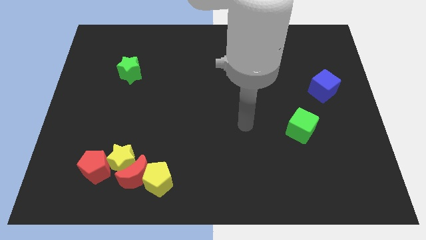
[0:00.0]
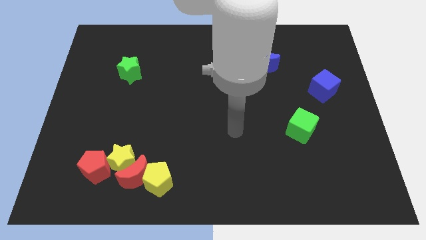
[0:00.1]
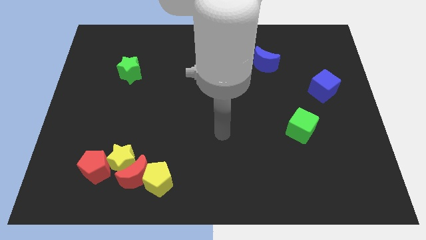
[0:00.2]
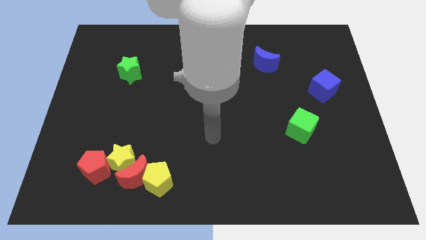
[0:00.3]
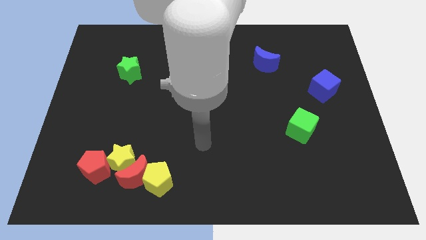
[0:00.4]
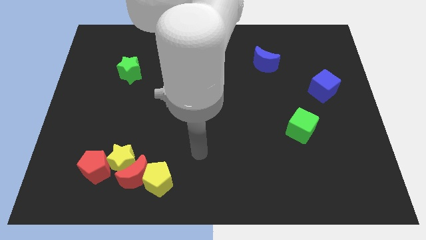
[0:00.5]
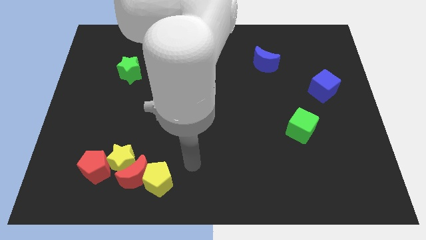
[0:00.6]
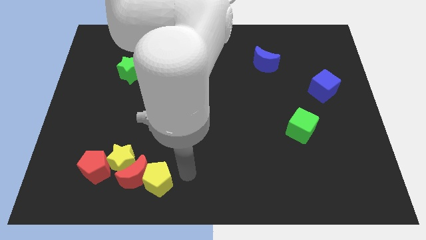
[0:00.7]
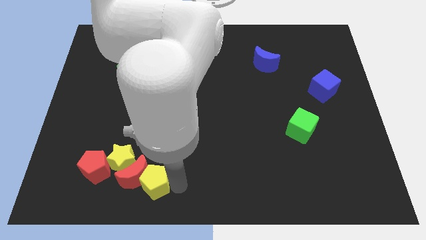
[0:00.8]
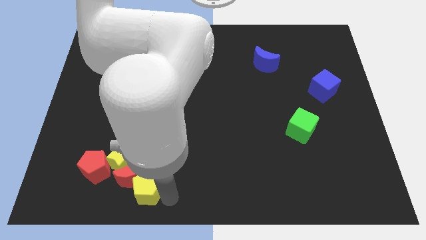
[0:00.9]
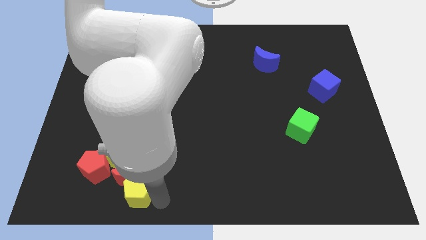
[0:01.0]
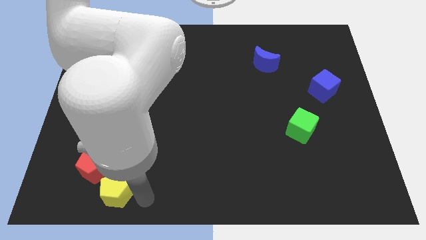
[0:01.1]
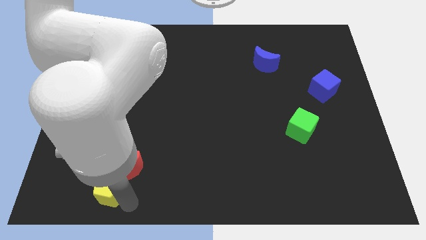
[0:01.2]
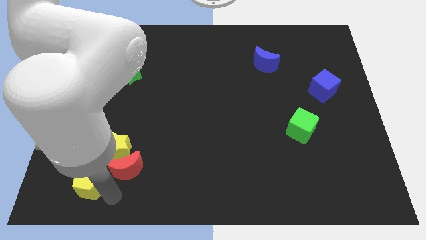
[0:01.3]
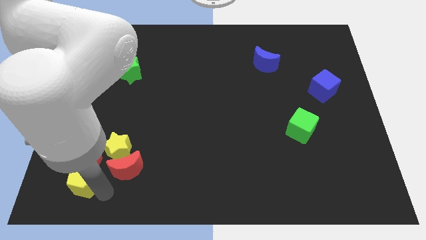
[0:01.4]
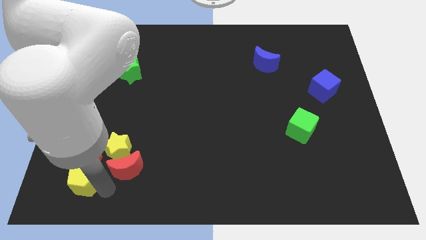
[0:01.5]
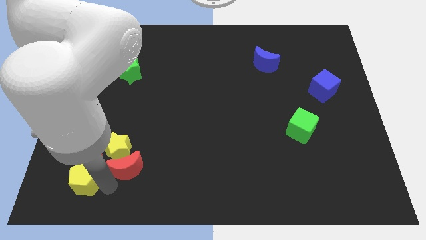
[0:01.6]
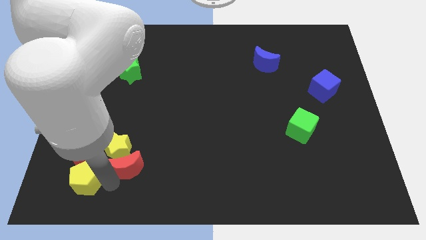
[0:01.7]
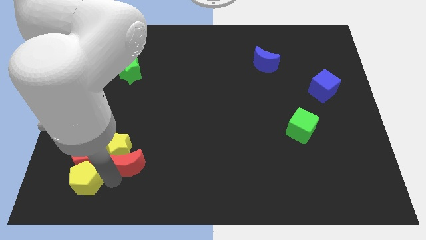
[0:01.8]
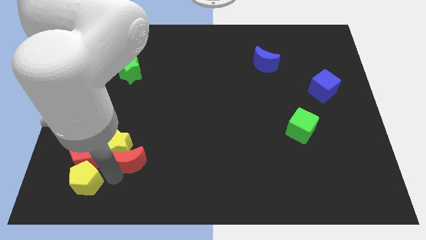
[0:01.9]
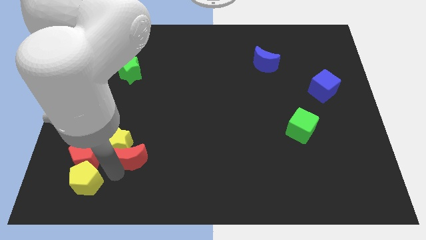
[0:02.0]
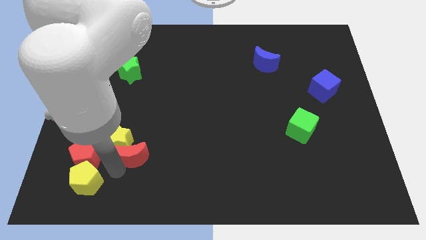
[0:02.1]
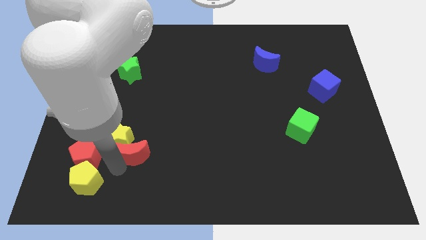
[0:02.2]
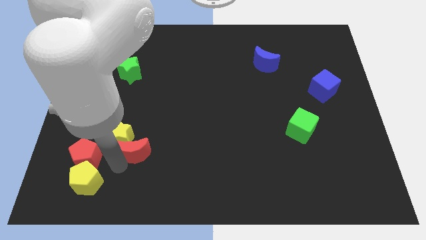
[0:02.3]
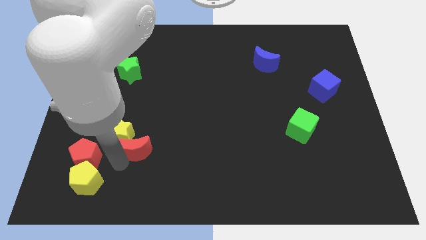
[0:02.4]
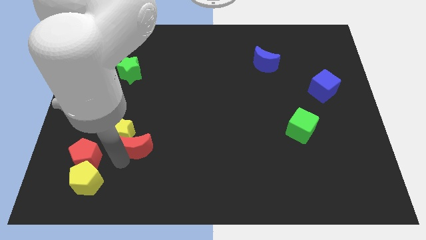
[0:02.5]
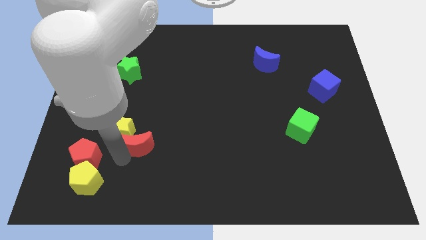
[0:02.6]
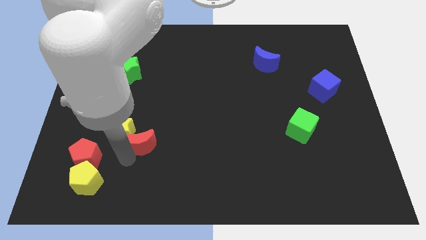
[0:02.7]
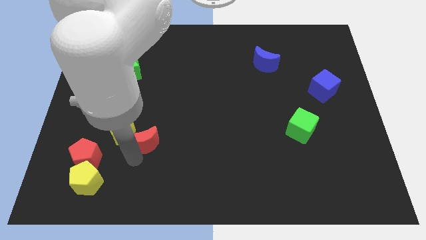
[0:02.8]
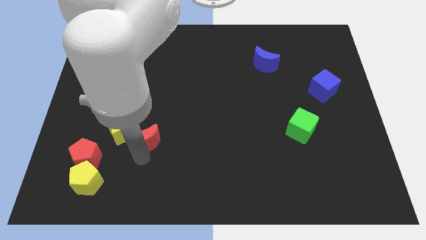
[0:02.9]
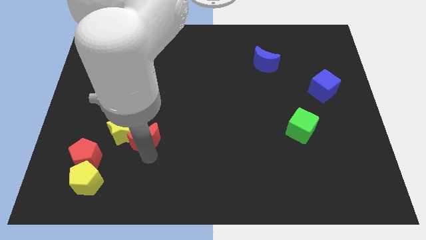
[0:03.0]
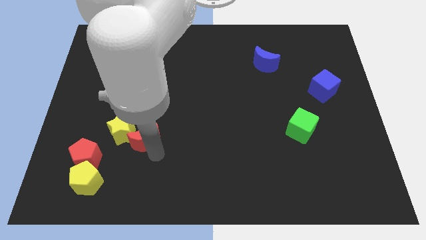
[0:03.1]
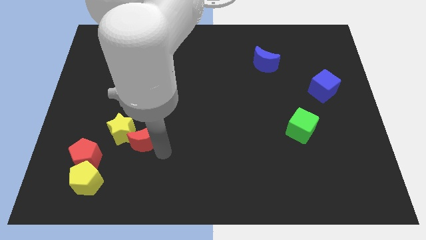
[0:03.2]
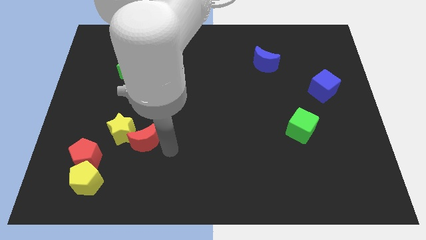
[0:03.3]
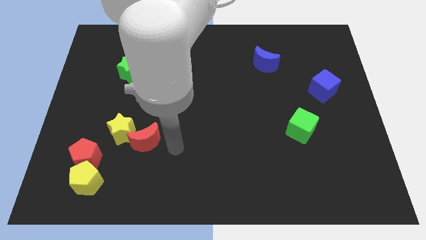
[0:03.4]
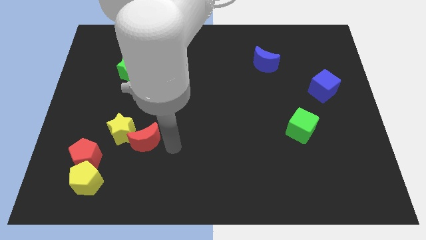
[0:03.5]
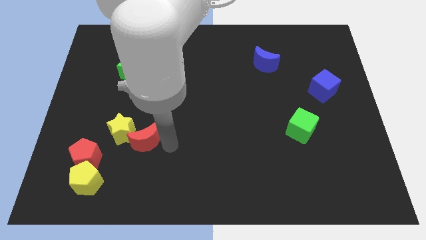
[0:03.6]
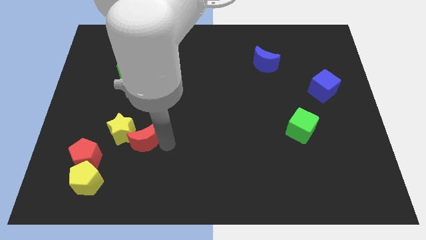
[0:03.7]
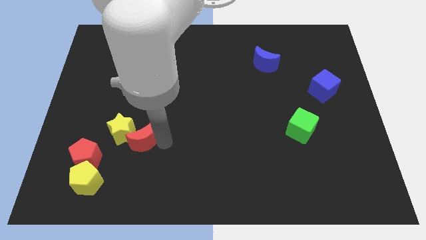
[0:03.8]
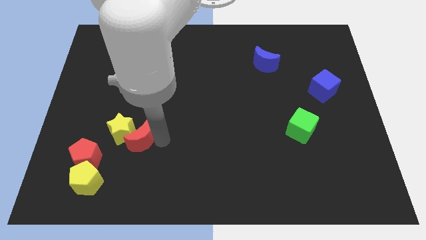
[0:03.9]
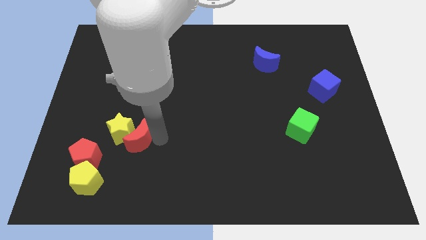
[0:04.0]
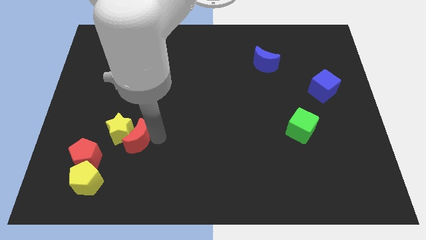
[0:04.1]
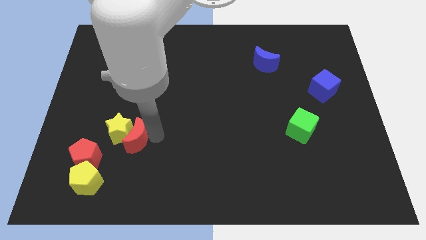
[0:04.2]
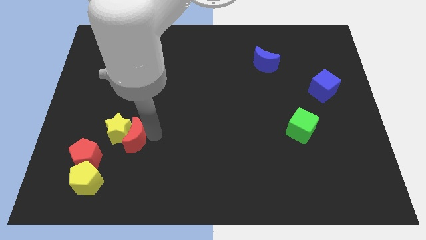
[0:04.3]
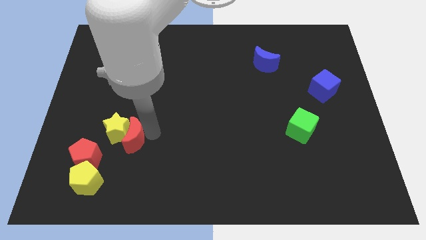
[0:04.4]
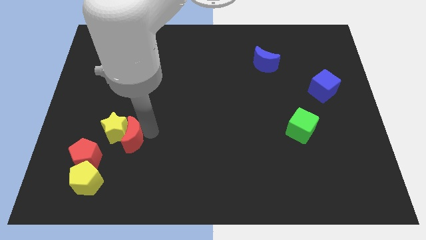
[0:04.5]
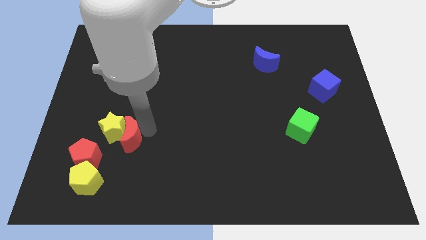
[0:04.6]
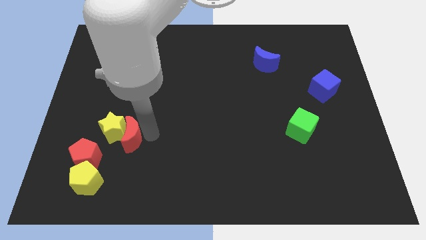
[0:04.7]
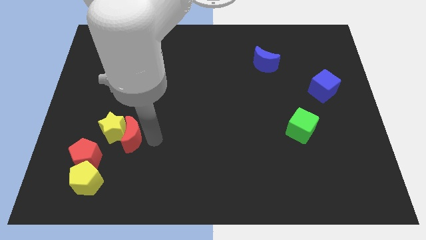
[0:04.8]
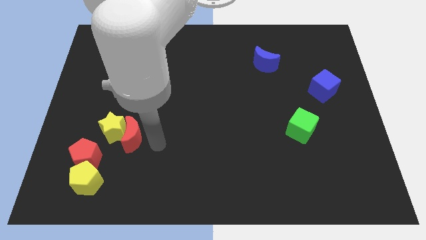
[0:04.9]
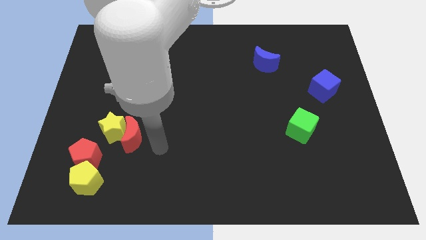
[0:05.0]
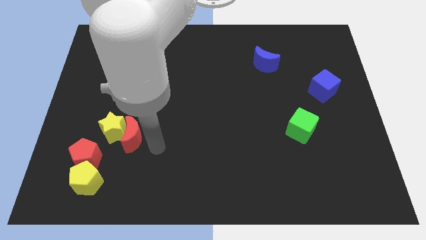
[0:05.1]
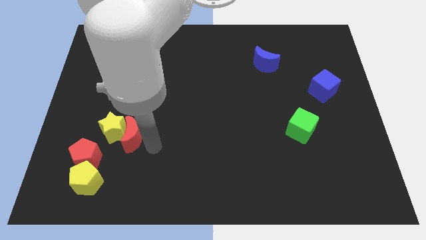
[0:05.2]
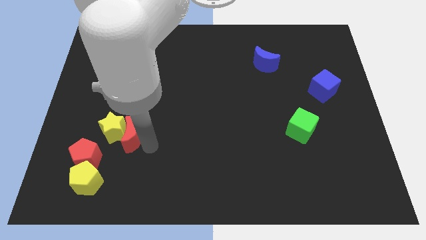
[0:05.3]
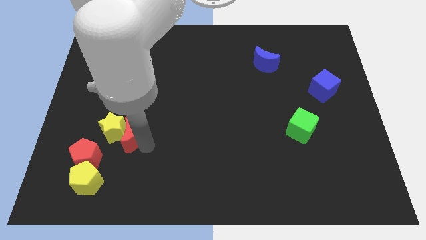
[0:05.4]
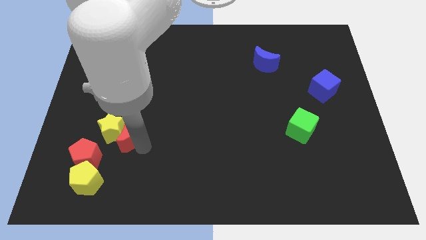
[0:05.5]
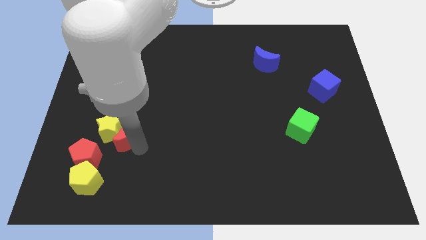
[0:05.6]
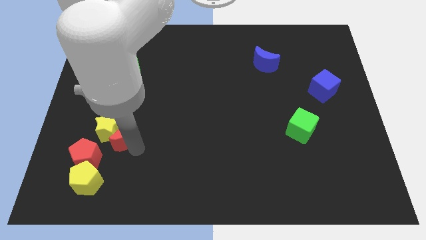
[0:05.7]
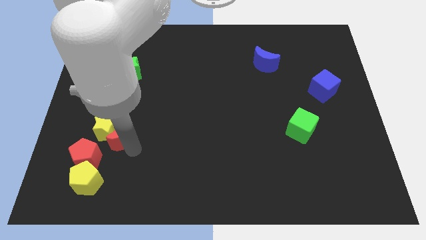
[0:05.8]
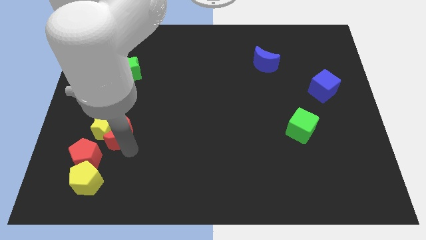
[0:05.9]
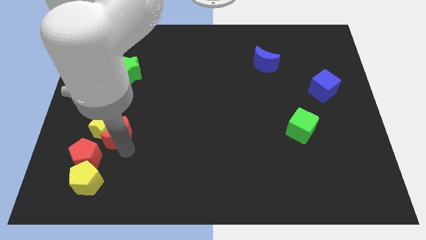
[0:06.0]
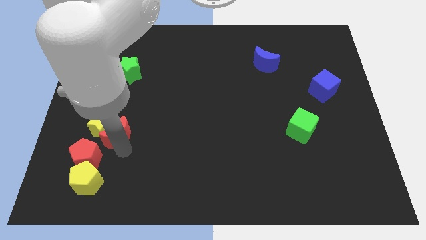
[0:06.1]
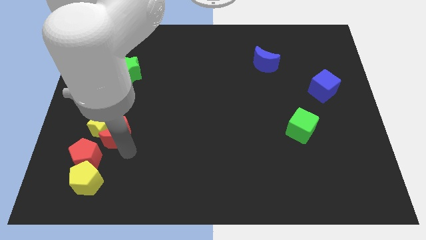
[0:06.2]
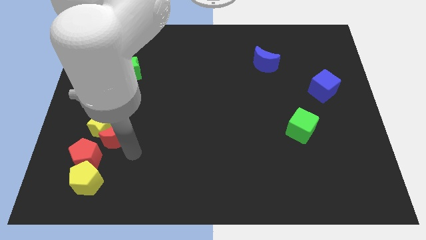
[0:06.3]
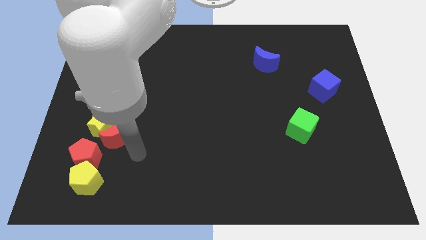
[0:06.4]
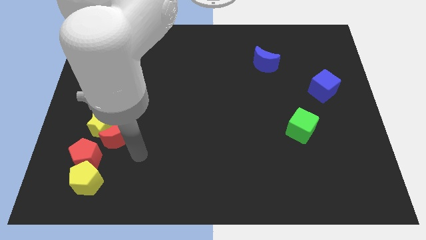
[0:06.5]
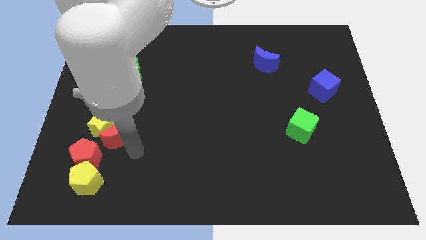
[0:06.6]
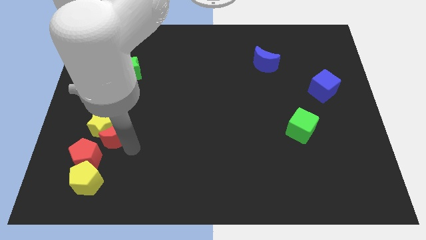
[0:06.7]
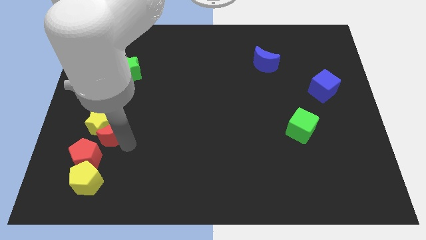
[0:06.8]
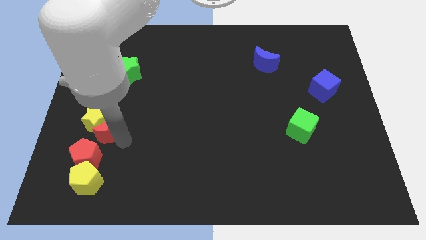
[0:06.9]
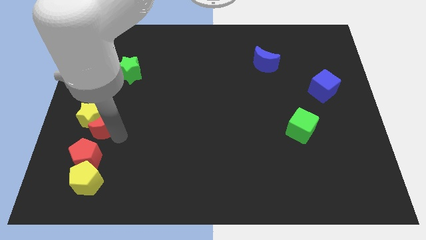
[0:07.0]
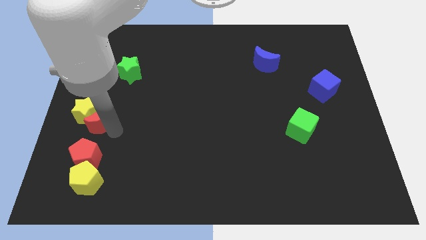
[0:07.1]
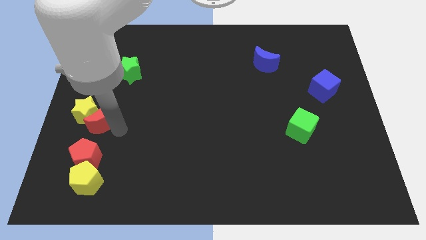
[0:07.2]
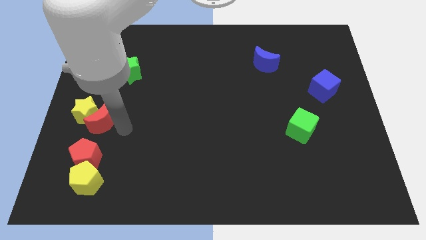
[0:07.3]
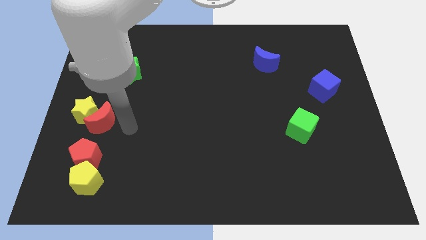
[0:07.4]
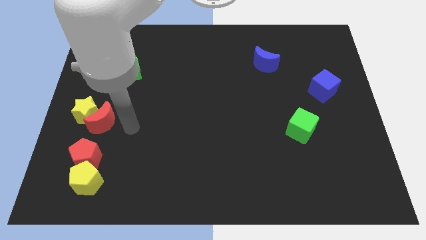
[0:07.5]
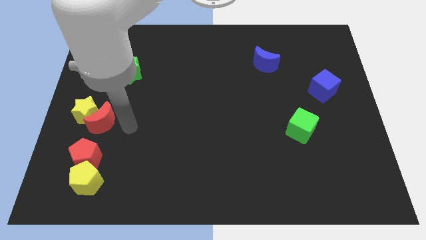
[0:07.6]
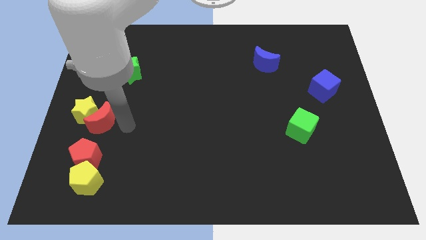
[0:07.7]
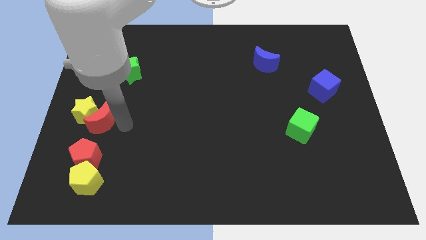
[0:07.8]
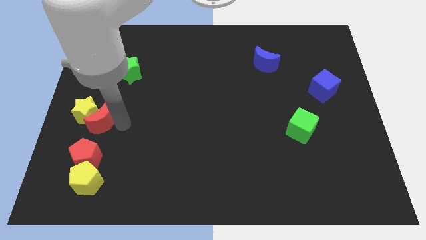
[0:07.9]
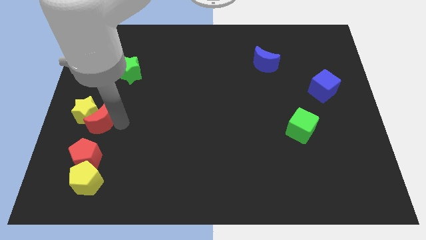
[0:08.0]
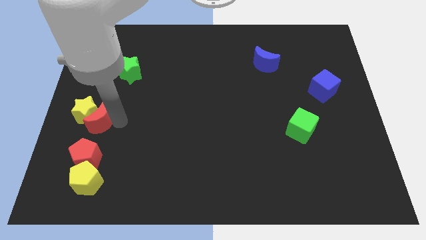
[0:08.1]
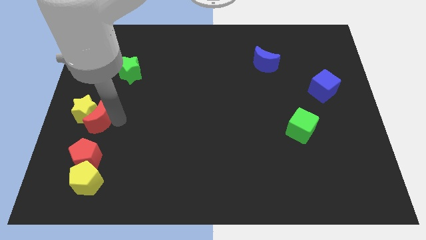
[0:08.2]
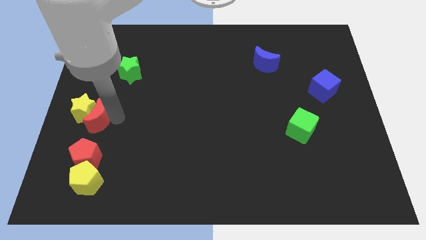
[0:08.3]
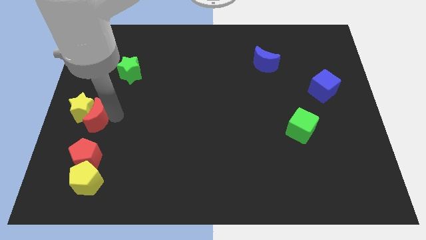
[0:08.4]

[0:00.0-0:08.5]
put the red moon to the left side of the board
